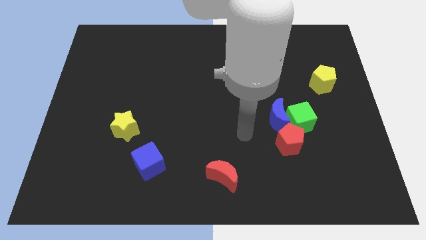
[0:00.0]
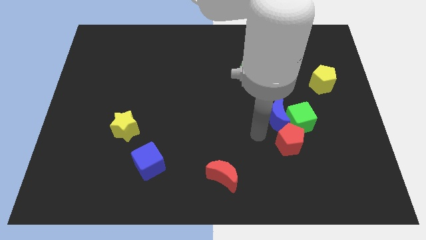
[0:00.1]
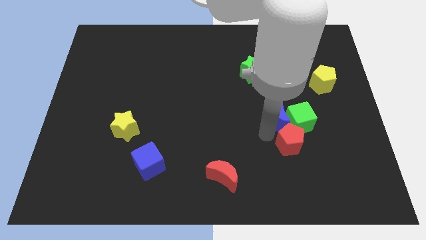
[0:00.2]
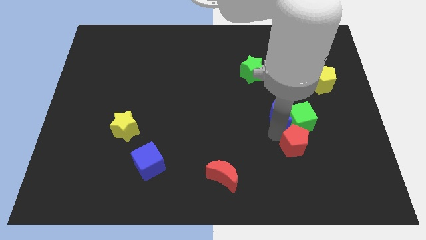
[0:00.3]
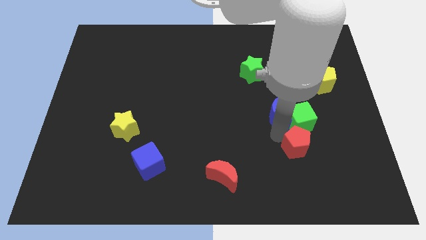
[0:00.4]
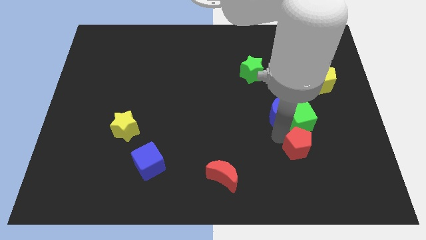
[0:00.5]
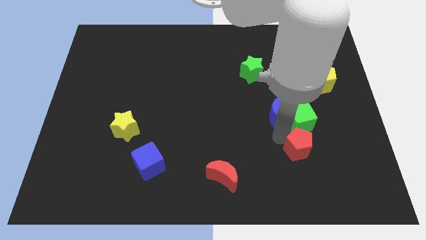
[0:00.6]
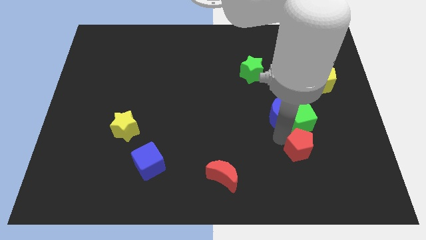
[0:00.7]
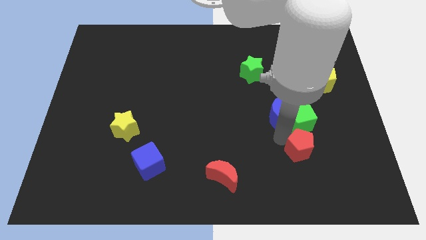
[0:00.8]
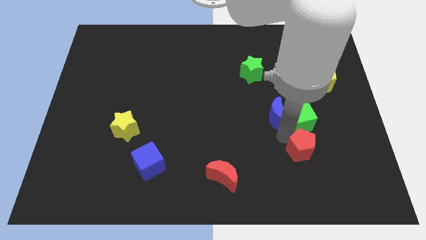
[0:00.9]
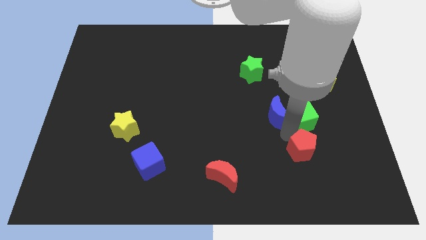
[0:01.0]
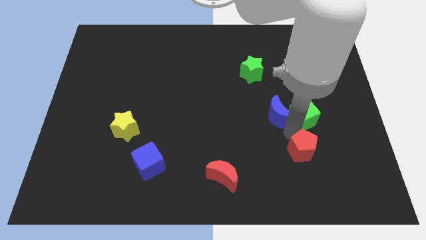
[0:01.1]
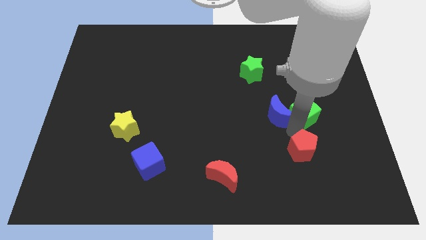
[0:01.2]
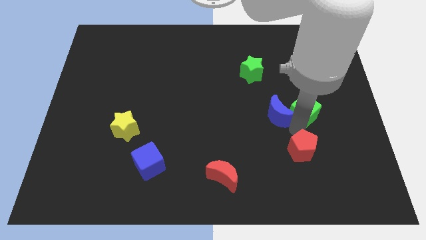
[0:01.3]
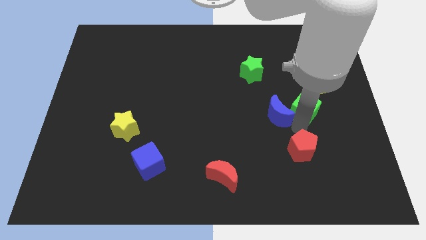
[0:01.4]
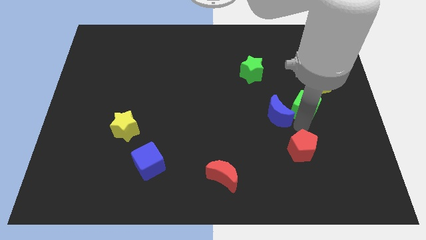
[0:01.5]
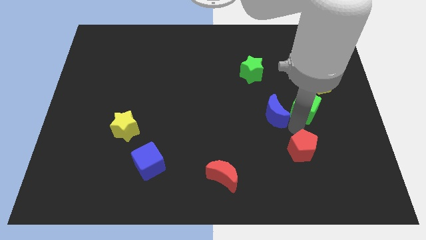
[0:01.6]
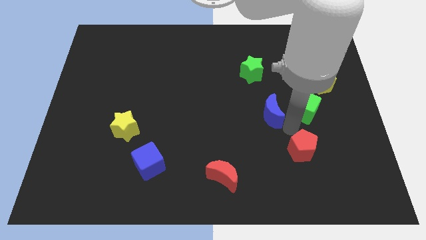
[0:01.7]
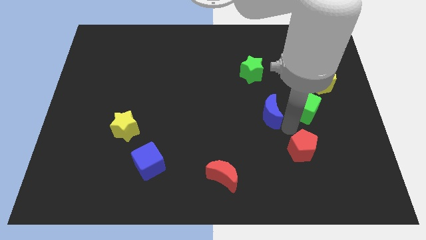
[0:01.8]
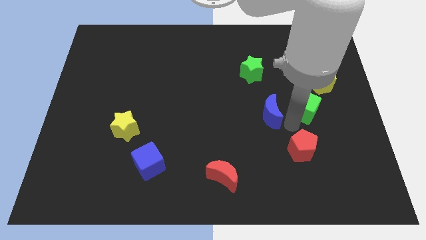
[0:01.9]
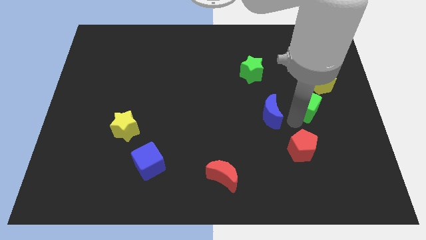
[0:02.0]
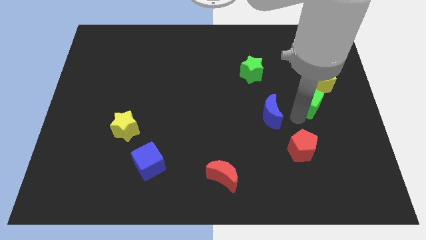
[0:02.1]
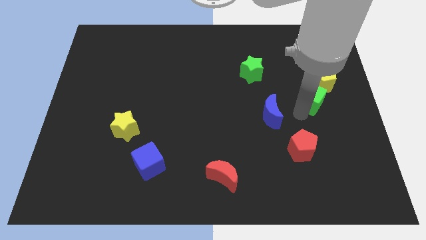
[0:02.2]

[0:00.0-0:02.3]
separate the green cube from the blue moon and red pentagon

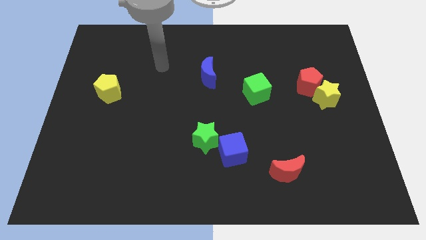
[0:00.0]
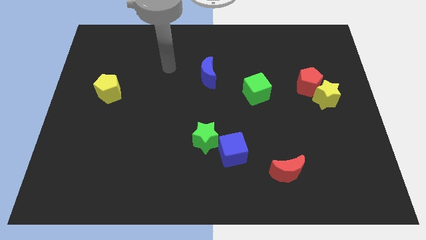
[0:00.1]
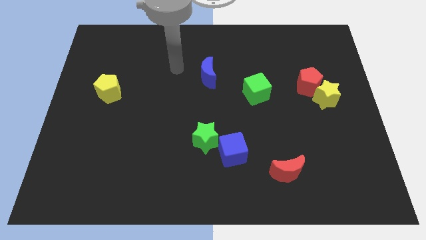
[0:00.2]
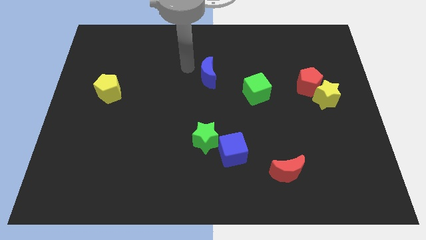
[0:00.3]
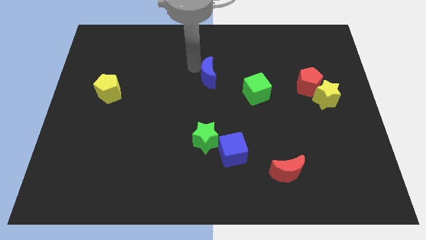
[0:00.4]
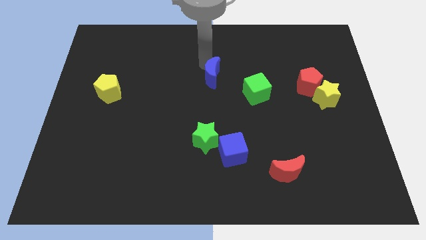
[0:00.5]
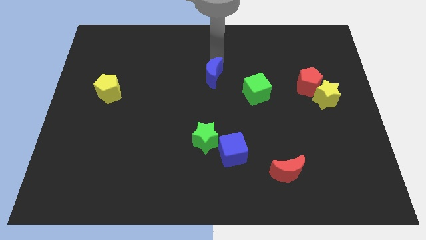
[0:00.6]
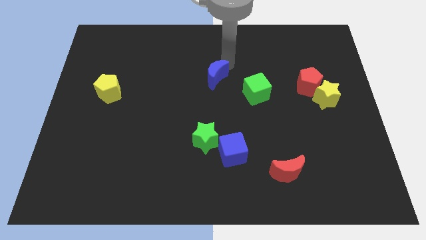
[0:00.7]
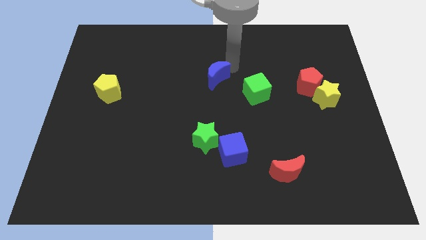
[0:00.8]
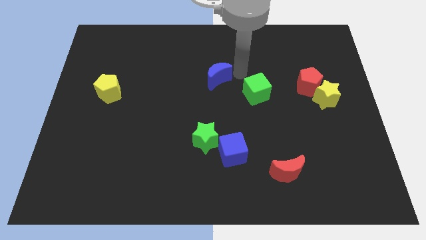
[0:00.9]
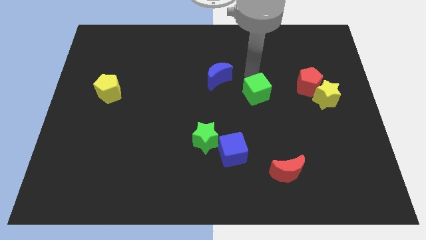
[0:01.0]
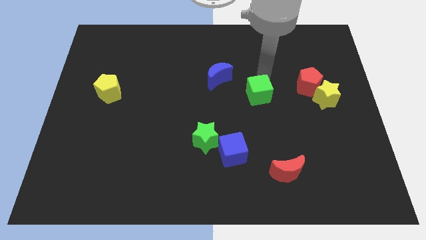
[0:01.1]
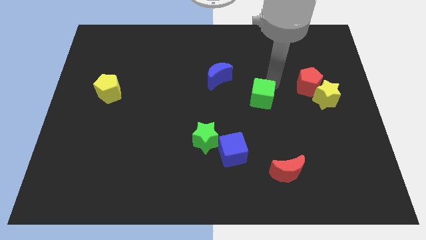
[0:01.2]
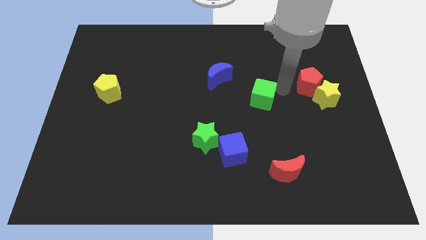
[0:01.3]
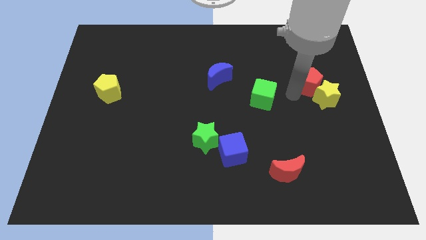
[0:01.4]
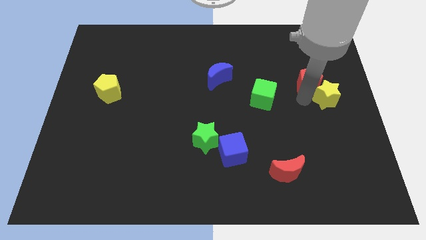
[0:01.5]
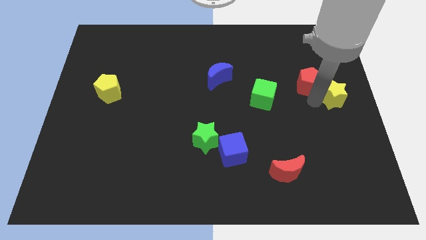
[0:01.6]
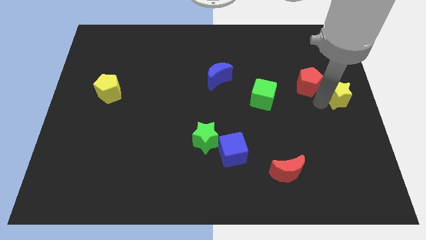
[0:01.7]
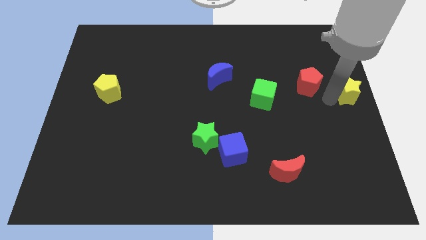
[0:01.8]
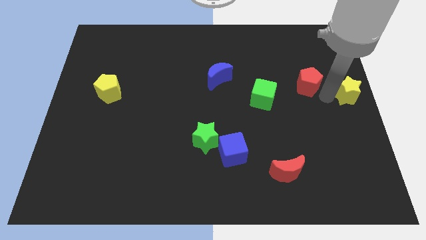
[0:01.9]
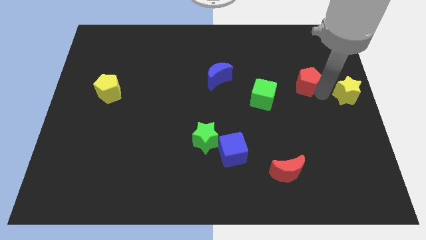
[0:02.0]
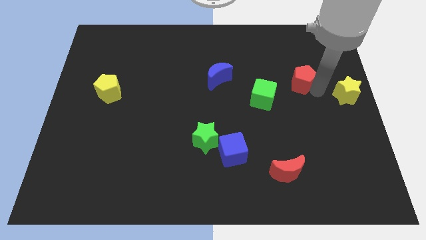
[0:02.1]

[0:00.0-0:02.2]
separate the red pentagon from the yellow star

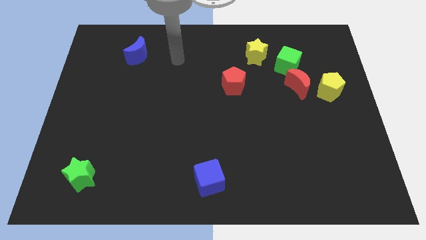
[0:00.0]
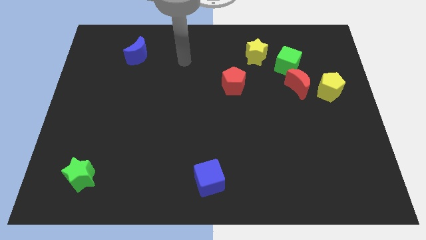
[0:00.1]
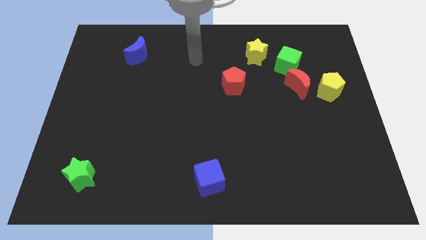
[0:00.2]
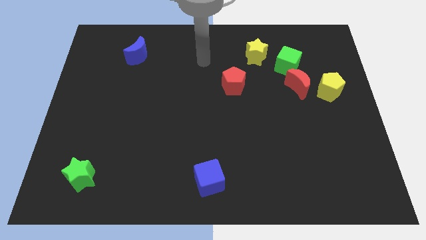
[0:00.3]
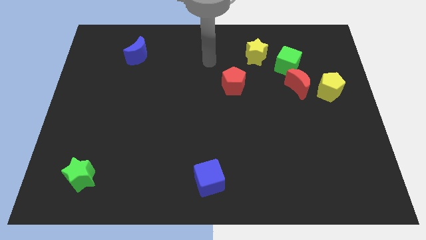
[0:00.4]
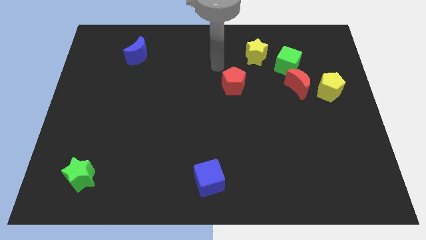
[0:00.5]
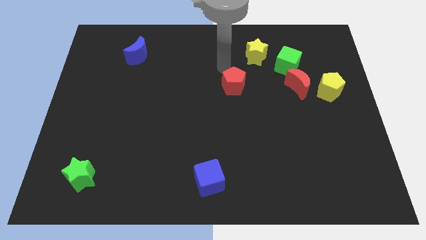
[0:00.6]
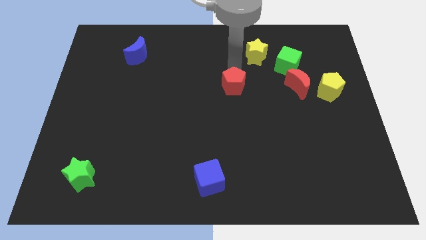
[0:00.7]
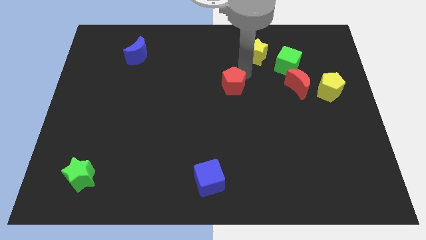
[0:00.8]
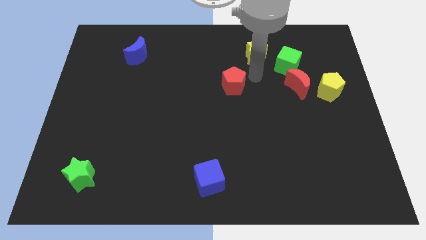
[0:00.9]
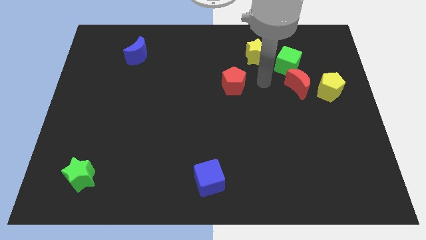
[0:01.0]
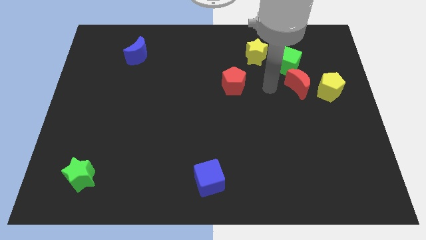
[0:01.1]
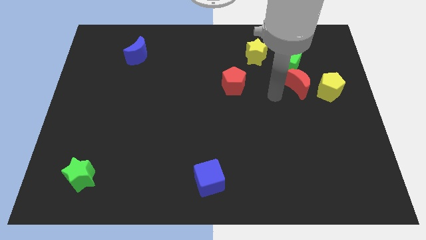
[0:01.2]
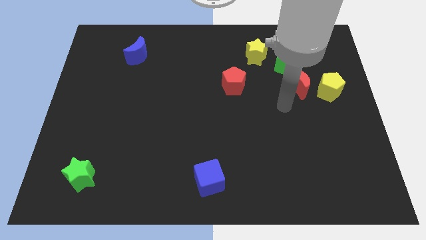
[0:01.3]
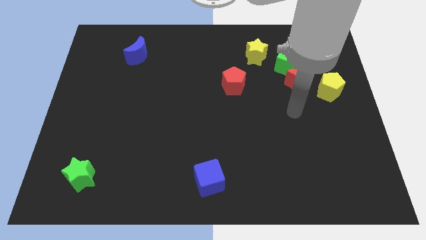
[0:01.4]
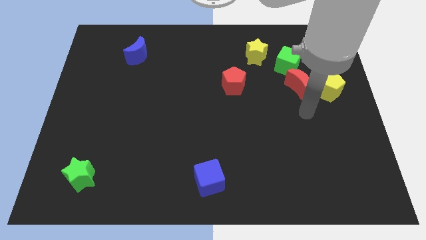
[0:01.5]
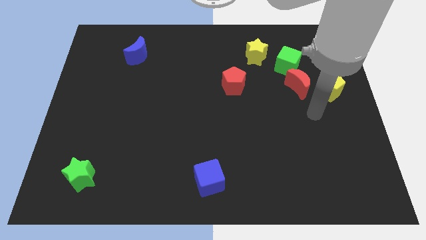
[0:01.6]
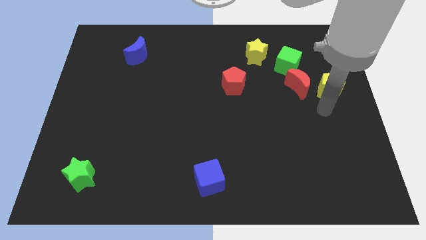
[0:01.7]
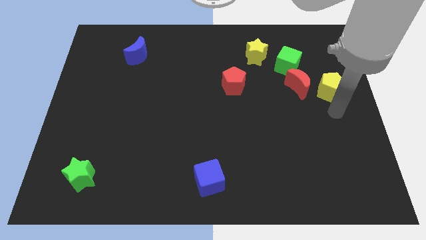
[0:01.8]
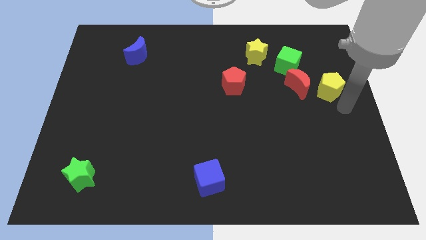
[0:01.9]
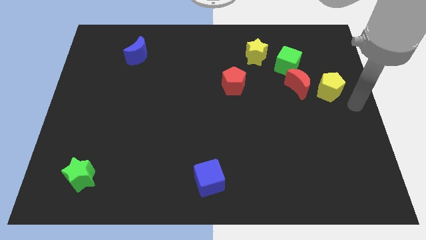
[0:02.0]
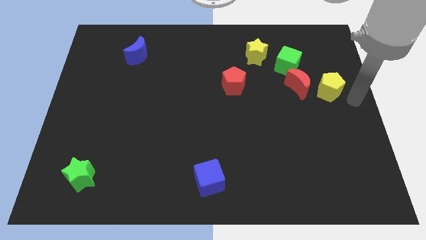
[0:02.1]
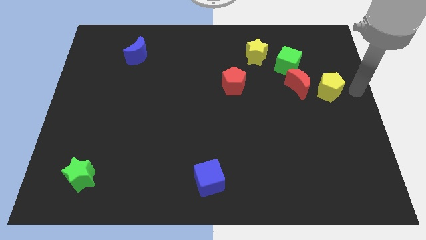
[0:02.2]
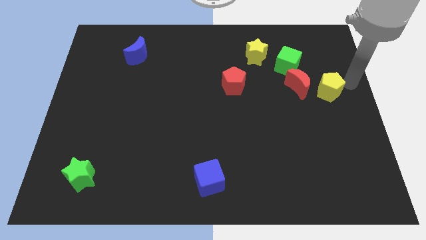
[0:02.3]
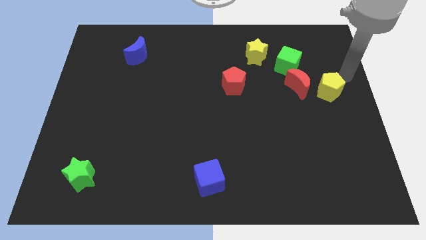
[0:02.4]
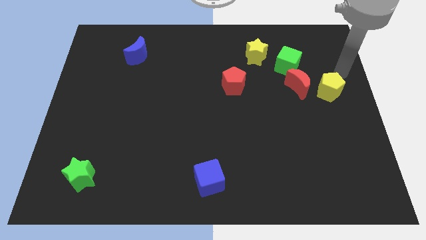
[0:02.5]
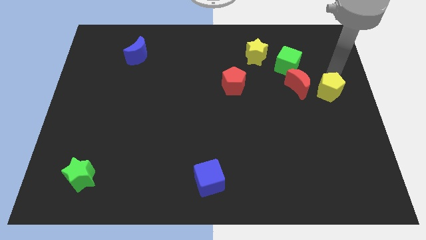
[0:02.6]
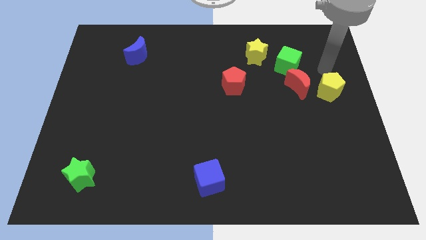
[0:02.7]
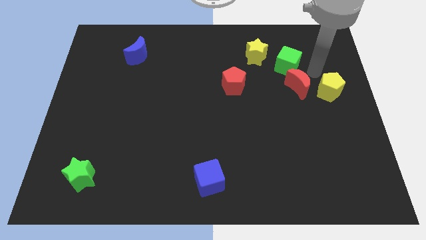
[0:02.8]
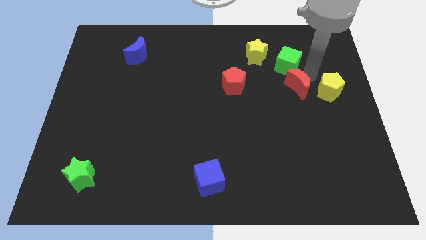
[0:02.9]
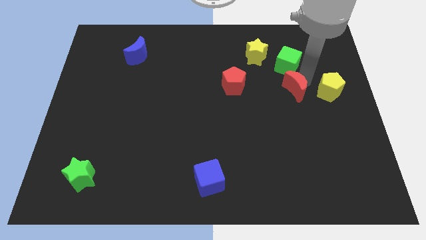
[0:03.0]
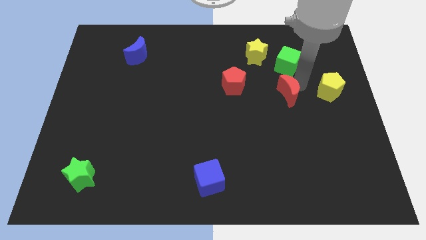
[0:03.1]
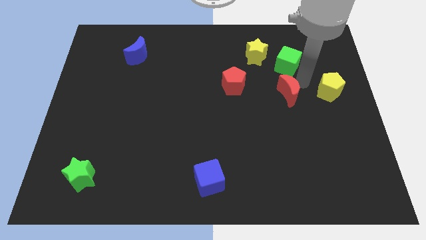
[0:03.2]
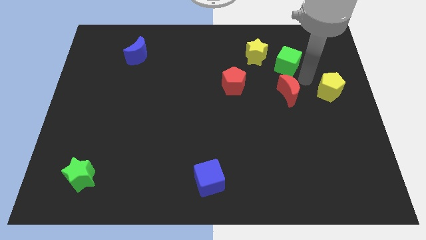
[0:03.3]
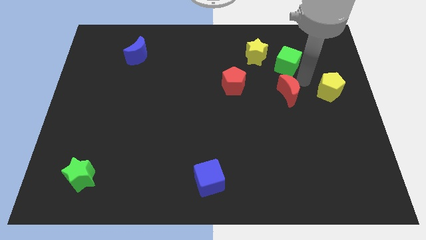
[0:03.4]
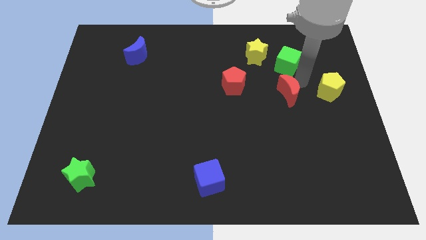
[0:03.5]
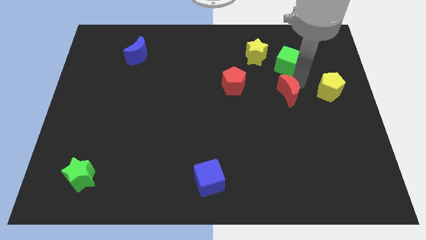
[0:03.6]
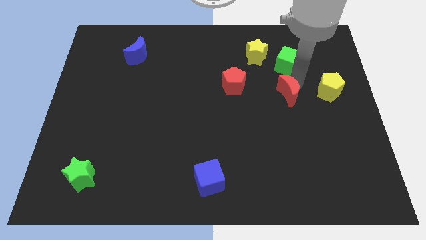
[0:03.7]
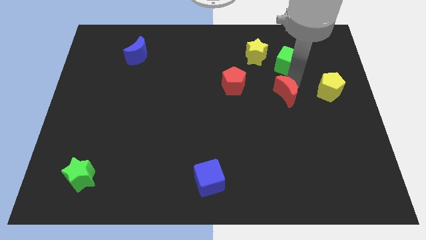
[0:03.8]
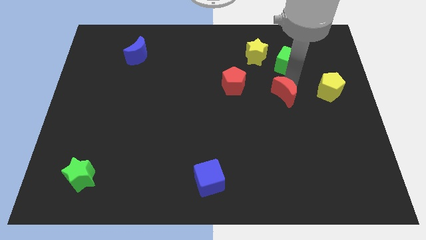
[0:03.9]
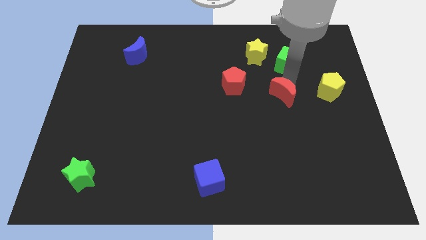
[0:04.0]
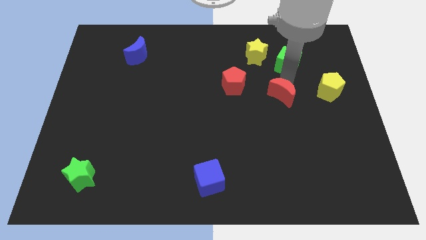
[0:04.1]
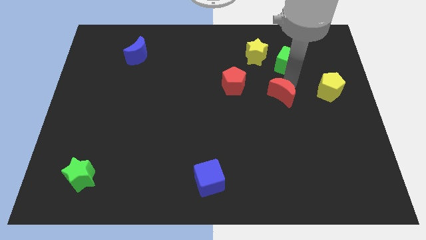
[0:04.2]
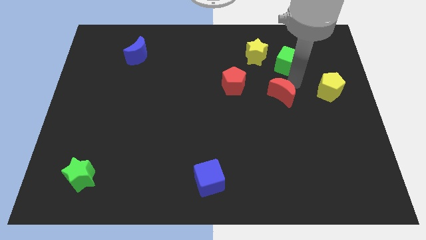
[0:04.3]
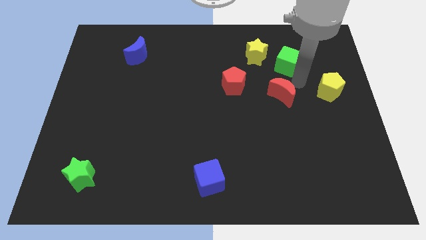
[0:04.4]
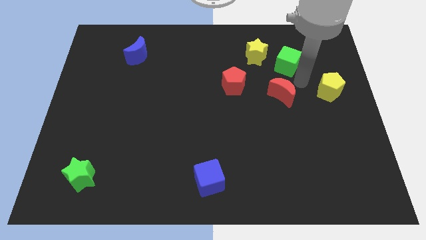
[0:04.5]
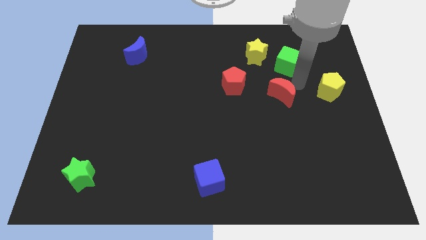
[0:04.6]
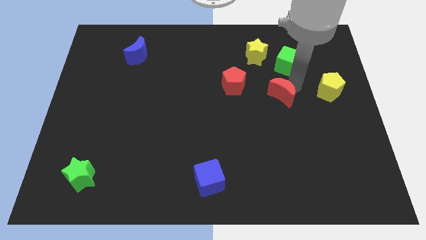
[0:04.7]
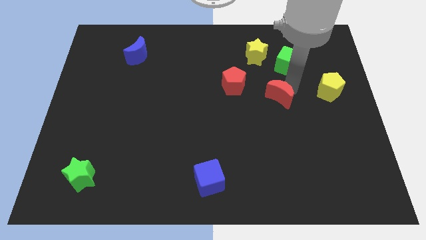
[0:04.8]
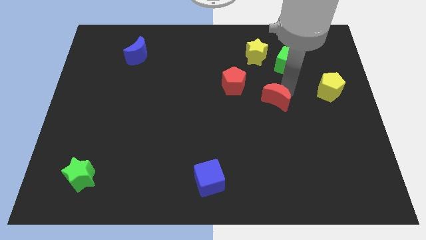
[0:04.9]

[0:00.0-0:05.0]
pull the red moon apart from the green cube and yellow pentagon
